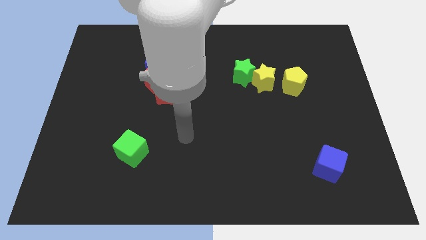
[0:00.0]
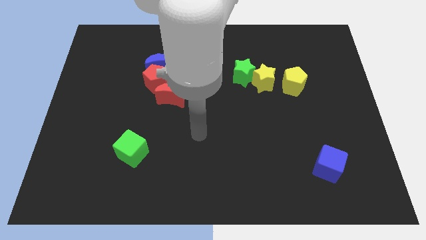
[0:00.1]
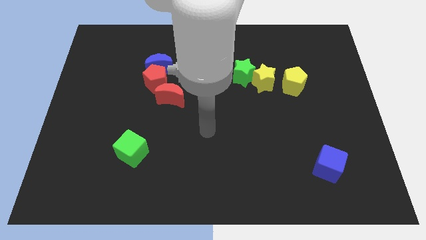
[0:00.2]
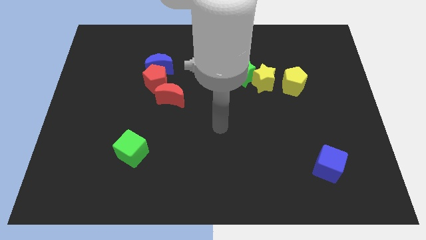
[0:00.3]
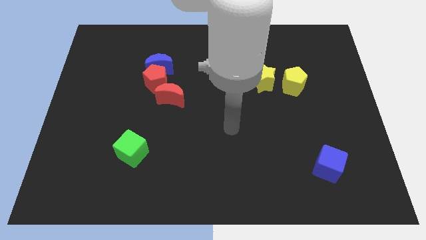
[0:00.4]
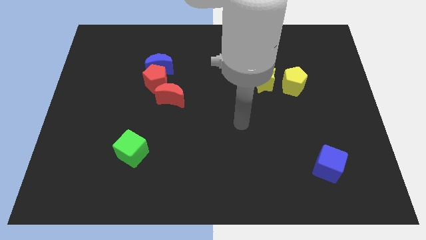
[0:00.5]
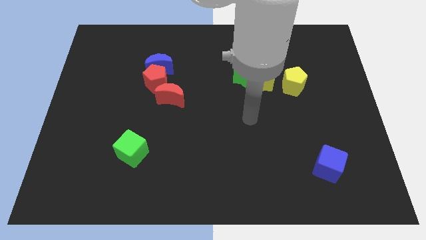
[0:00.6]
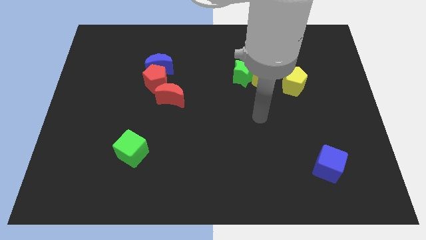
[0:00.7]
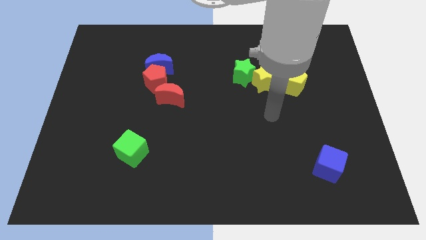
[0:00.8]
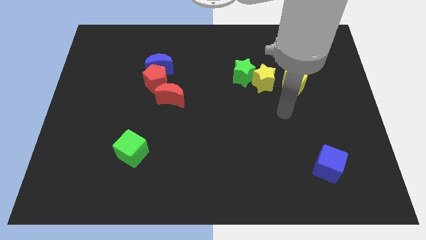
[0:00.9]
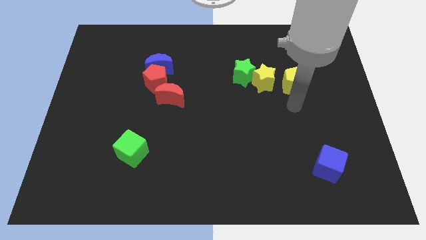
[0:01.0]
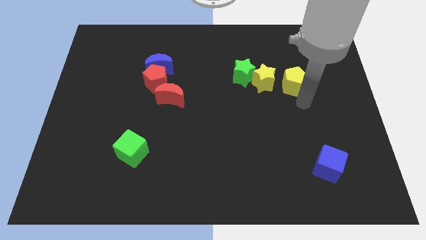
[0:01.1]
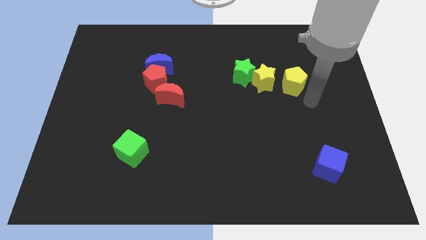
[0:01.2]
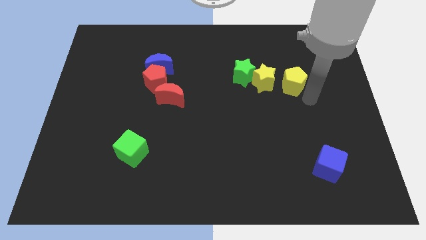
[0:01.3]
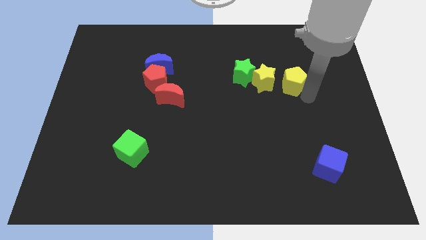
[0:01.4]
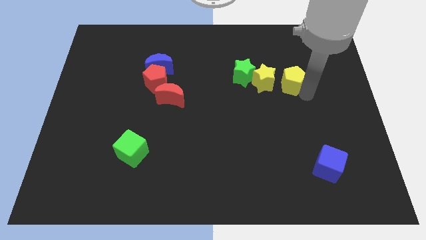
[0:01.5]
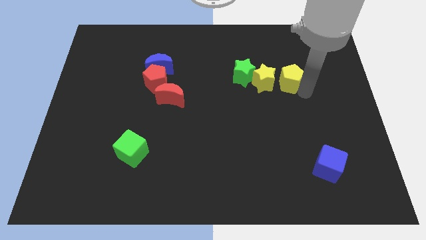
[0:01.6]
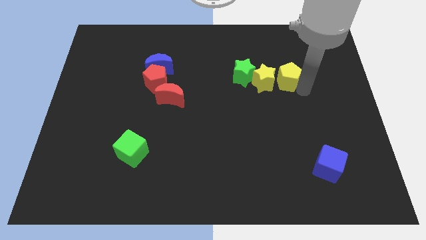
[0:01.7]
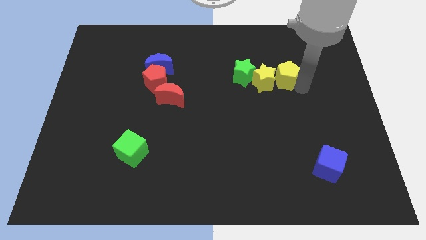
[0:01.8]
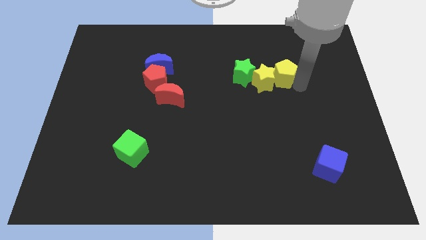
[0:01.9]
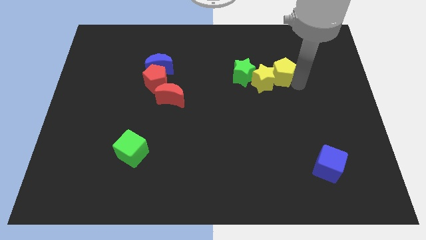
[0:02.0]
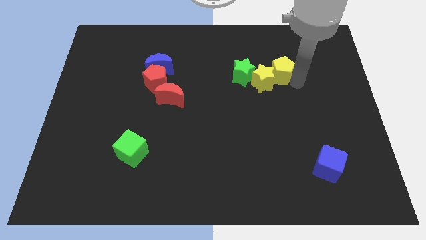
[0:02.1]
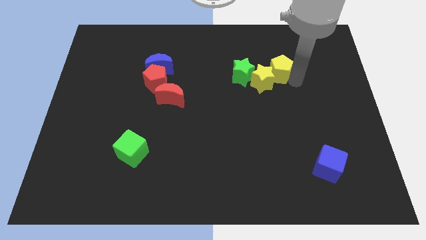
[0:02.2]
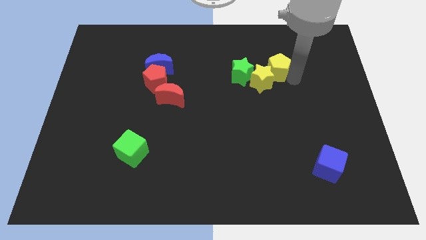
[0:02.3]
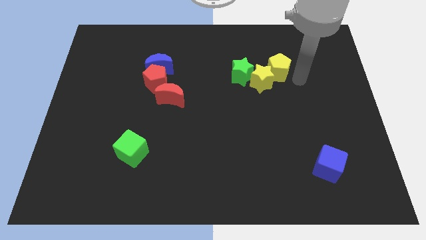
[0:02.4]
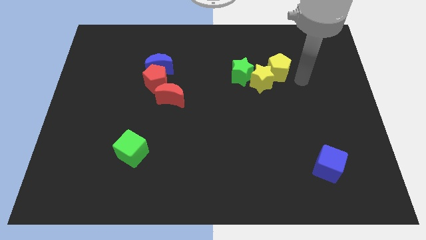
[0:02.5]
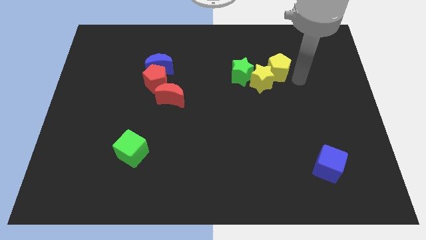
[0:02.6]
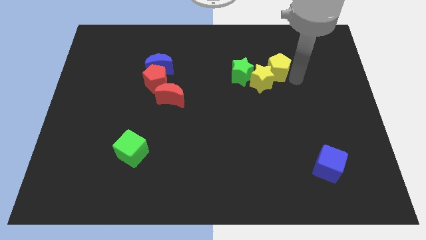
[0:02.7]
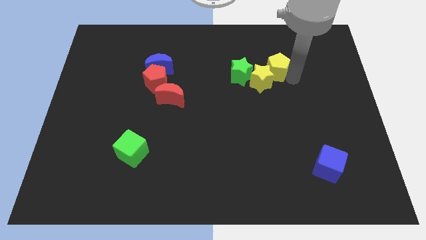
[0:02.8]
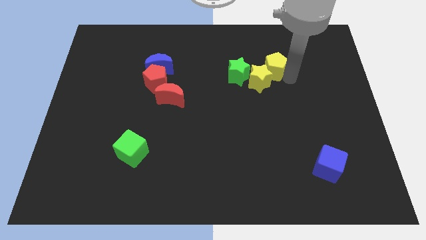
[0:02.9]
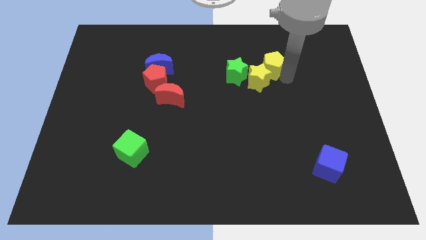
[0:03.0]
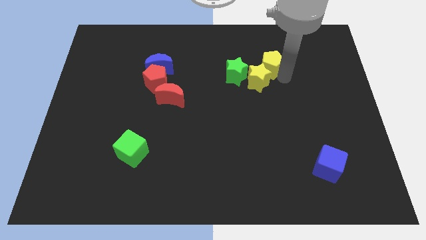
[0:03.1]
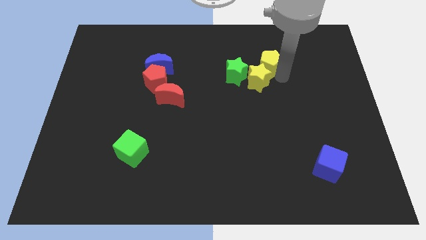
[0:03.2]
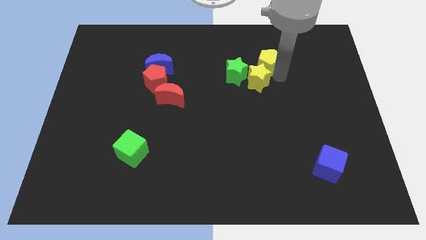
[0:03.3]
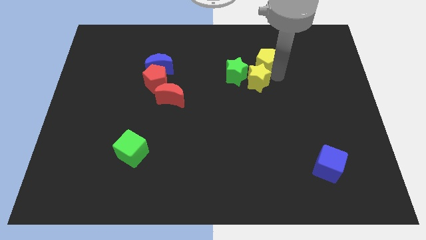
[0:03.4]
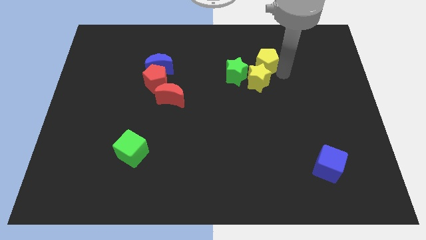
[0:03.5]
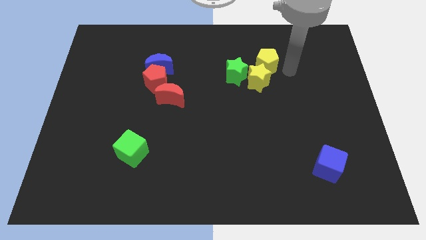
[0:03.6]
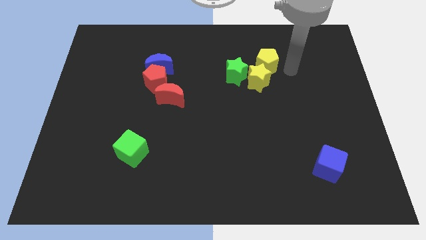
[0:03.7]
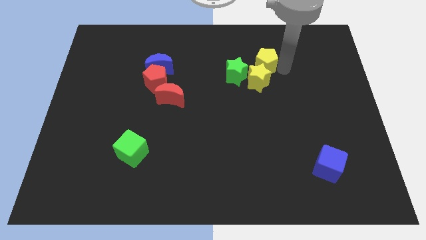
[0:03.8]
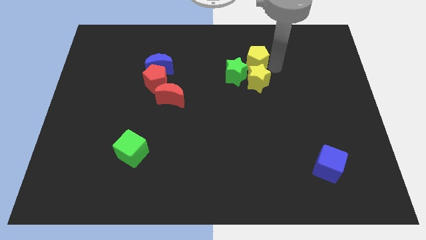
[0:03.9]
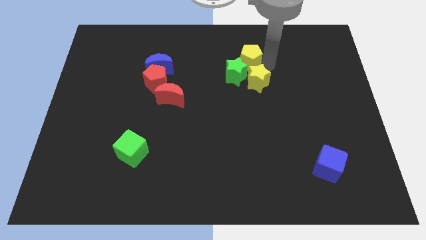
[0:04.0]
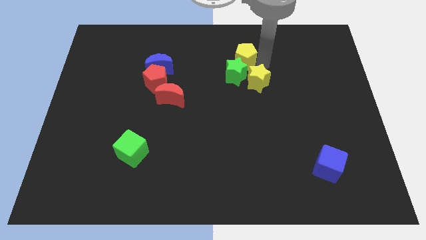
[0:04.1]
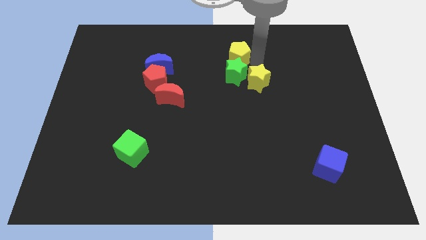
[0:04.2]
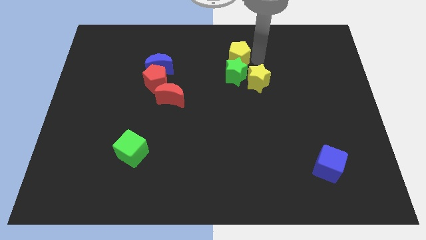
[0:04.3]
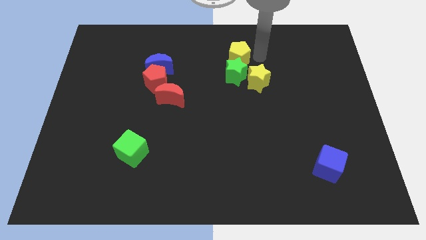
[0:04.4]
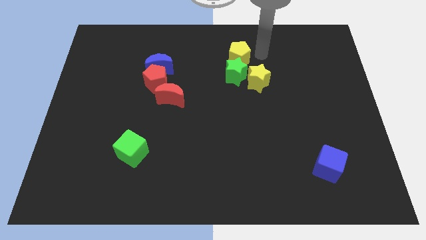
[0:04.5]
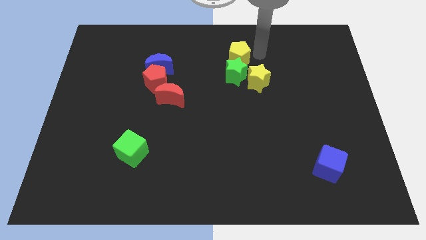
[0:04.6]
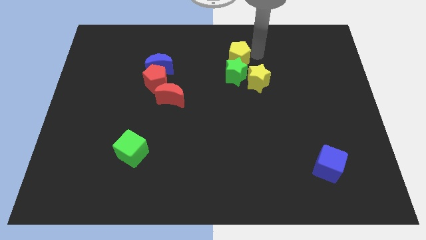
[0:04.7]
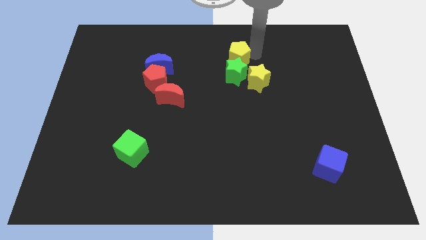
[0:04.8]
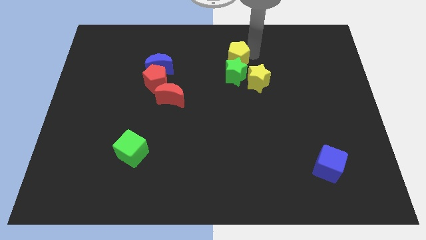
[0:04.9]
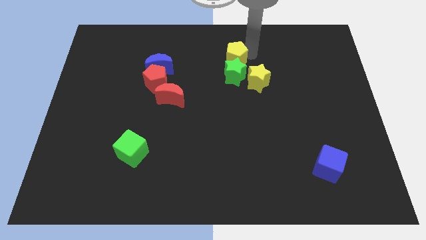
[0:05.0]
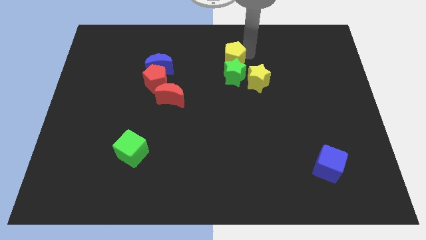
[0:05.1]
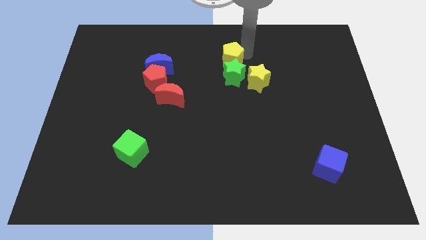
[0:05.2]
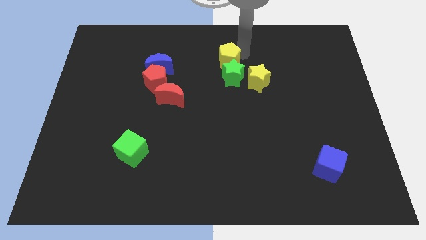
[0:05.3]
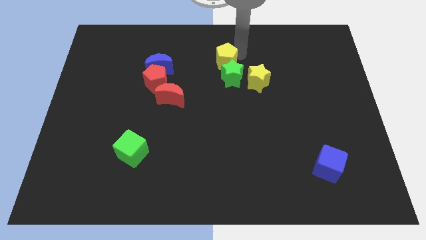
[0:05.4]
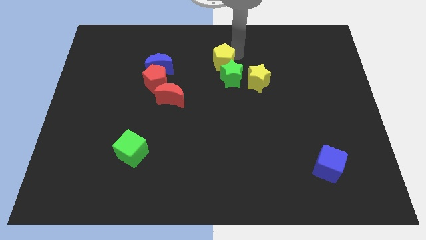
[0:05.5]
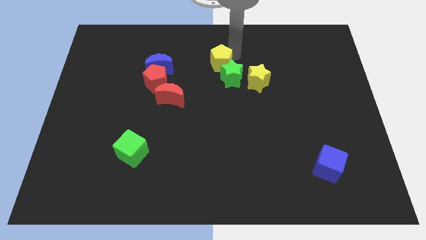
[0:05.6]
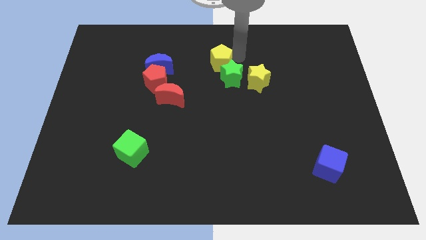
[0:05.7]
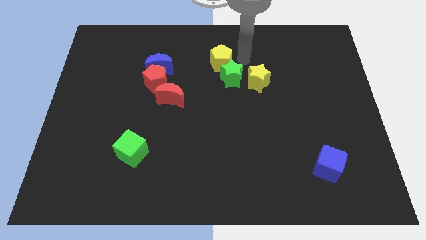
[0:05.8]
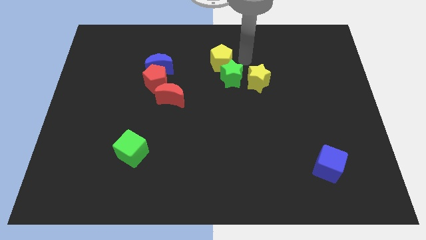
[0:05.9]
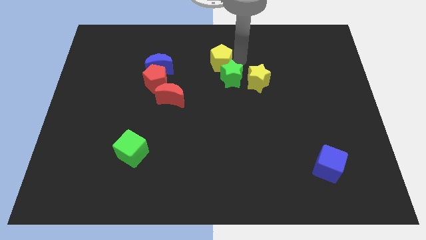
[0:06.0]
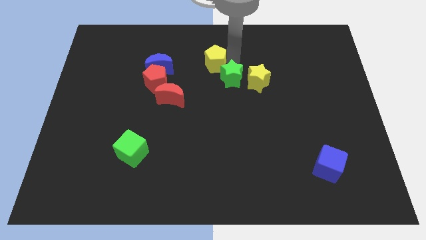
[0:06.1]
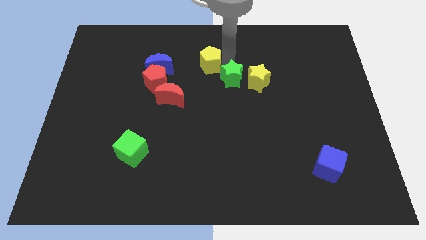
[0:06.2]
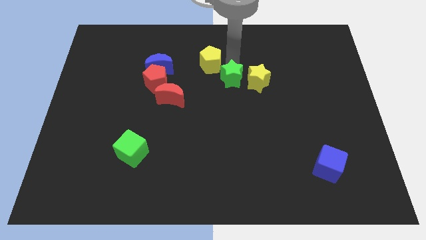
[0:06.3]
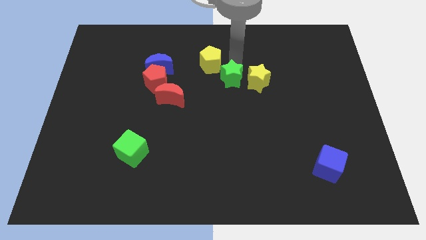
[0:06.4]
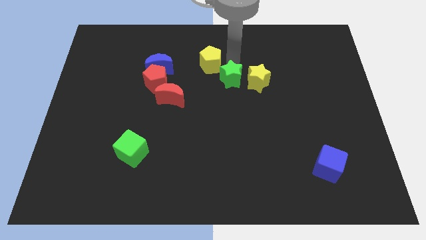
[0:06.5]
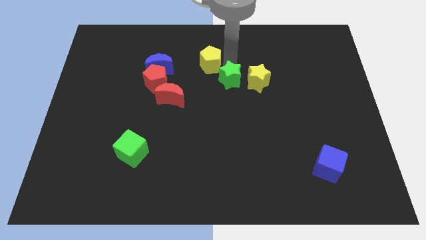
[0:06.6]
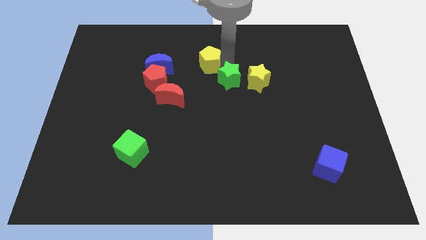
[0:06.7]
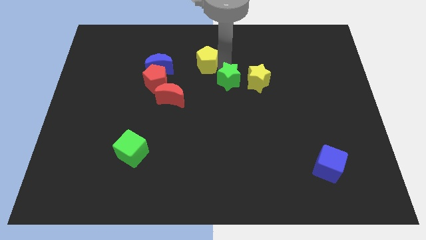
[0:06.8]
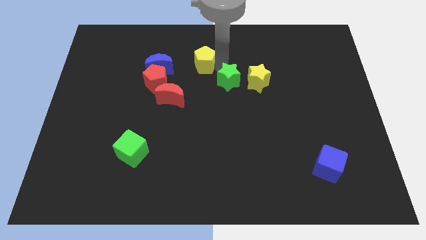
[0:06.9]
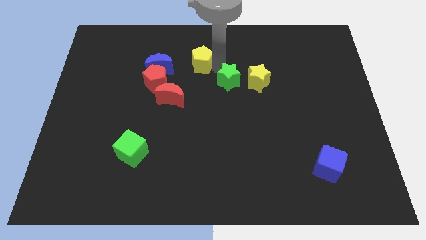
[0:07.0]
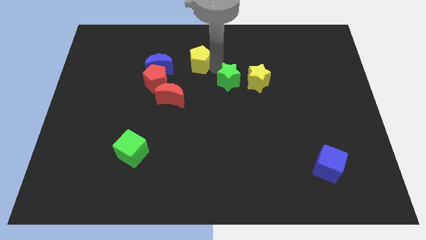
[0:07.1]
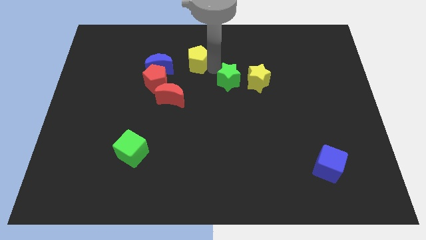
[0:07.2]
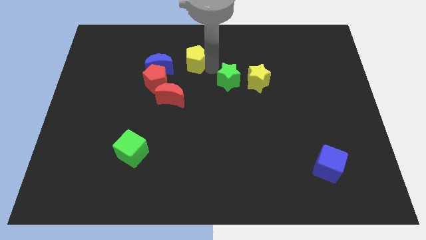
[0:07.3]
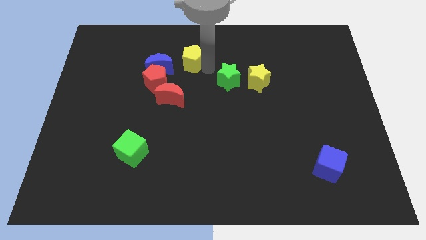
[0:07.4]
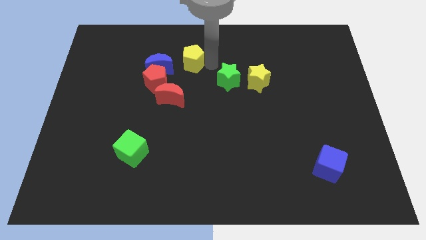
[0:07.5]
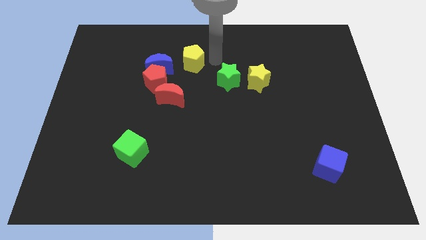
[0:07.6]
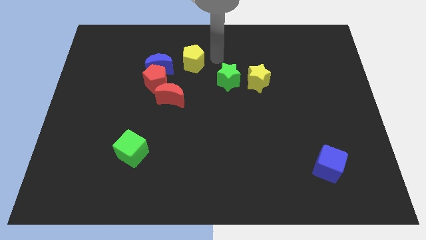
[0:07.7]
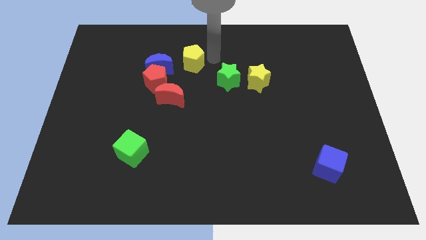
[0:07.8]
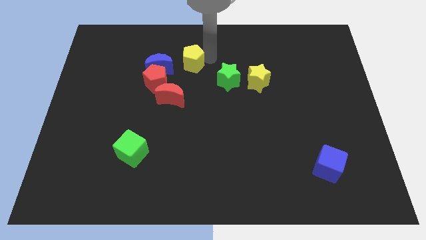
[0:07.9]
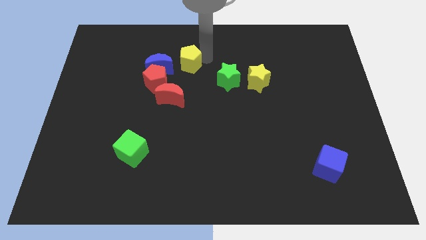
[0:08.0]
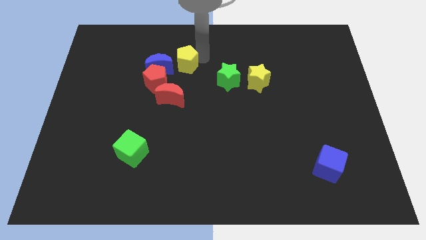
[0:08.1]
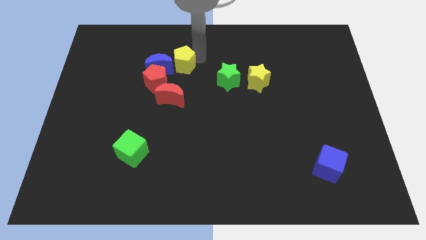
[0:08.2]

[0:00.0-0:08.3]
put the yellow pentagon next to the blue moon
